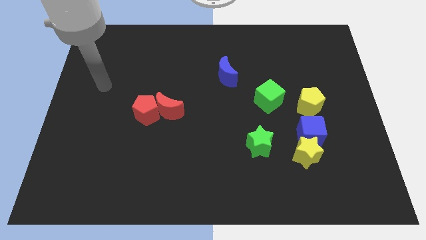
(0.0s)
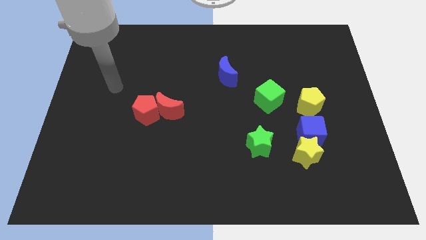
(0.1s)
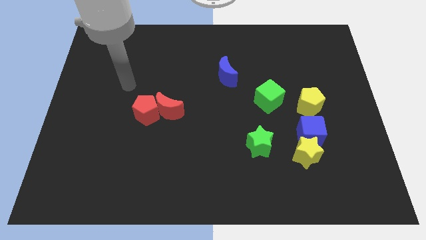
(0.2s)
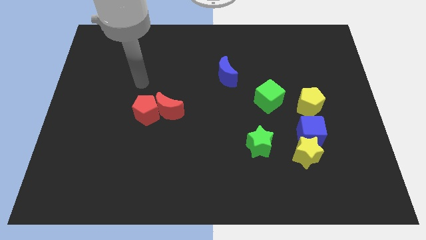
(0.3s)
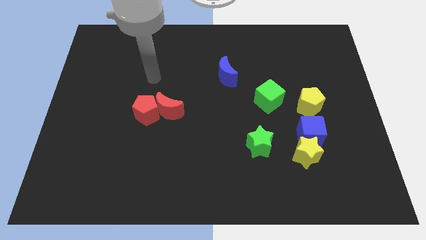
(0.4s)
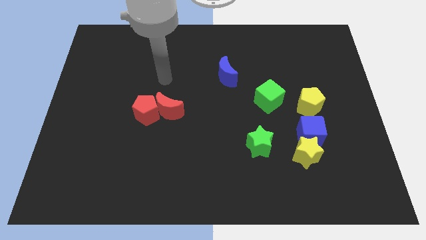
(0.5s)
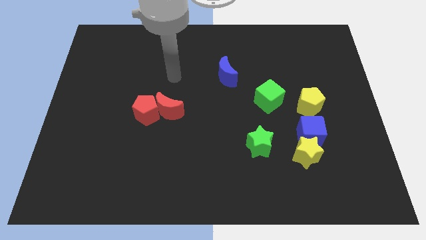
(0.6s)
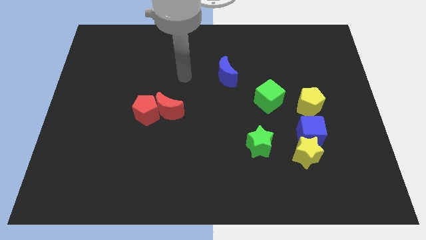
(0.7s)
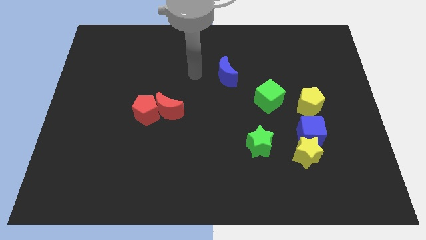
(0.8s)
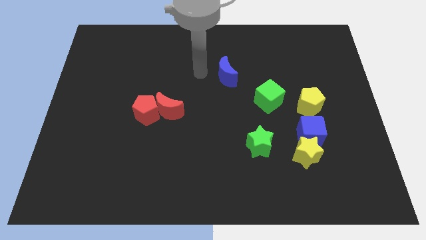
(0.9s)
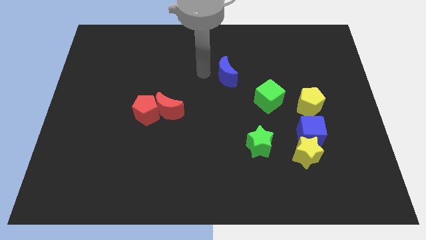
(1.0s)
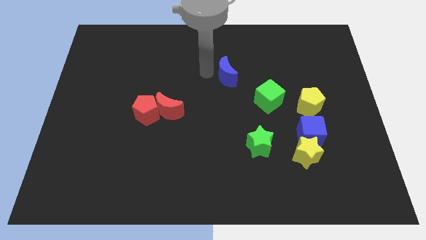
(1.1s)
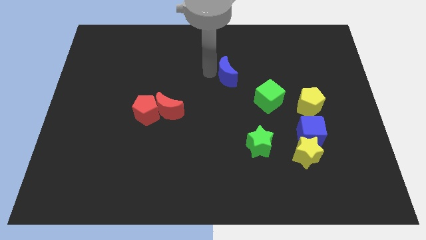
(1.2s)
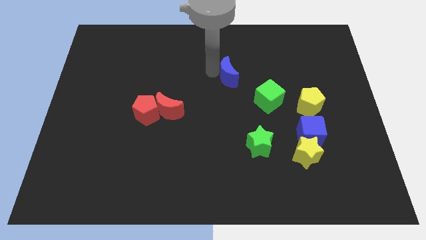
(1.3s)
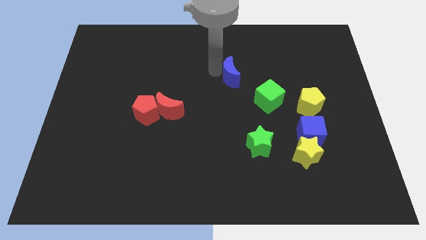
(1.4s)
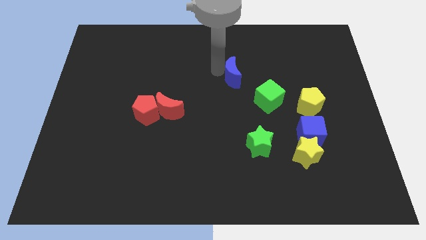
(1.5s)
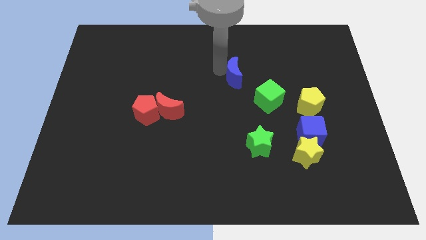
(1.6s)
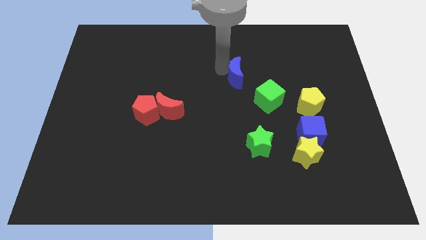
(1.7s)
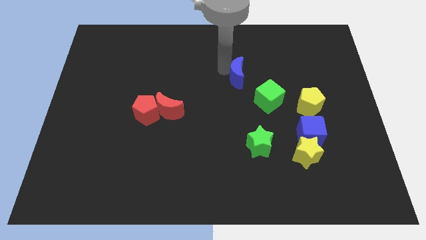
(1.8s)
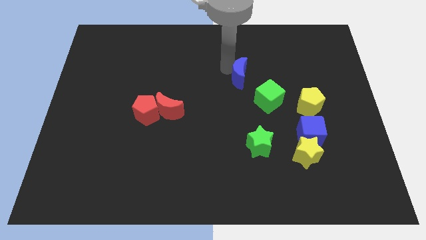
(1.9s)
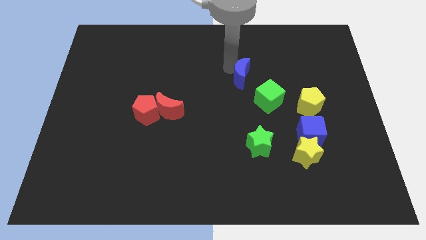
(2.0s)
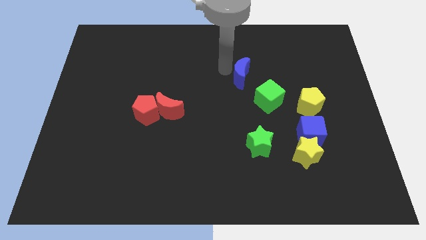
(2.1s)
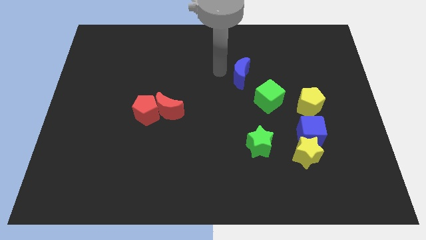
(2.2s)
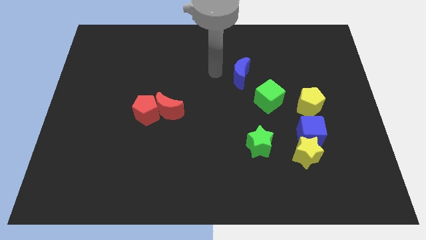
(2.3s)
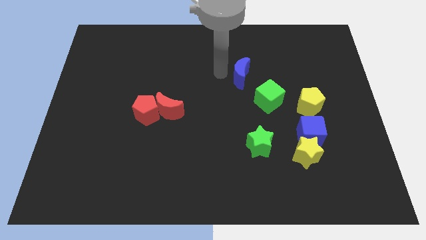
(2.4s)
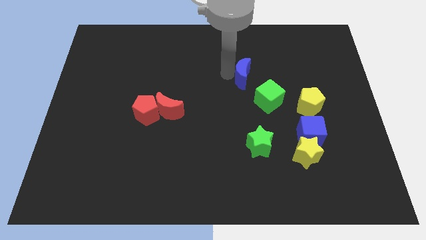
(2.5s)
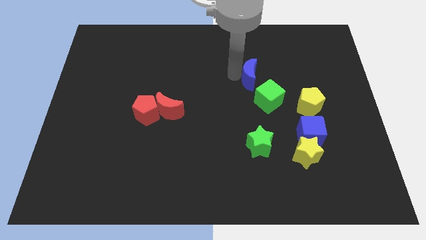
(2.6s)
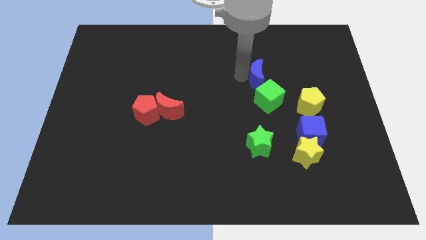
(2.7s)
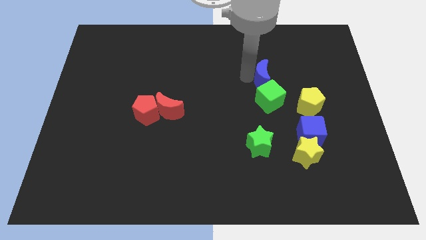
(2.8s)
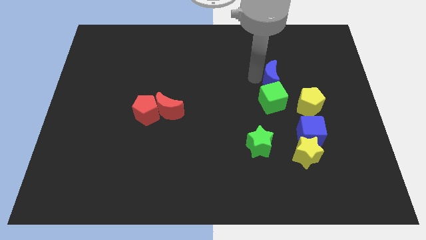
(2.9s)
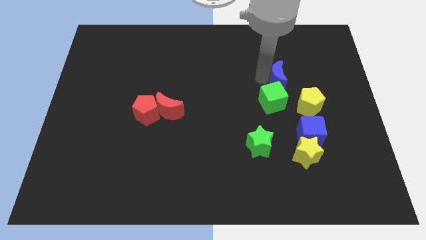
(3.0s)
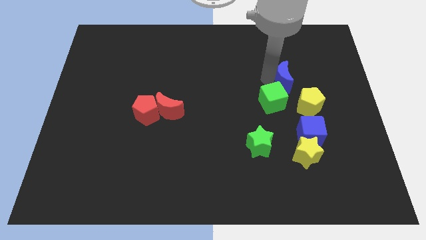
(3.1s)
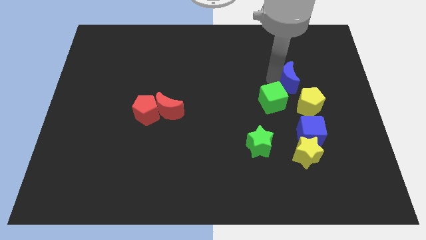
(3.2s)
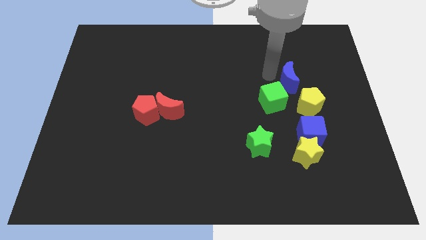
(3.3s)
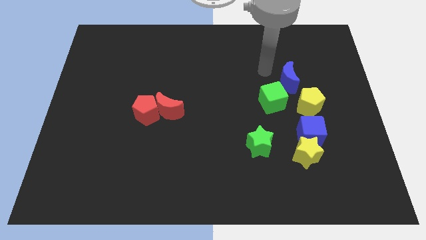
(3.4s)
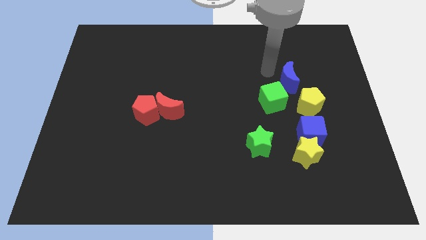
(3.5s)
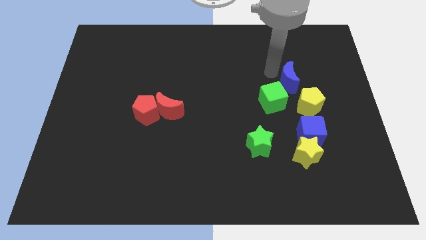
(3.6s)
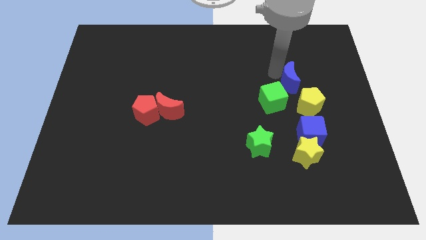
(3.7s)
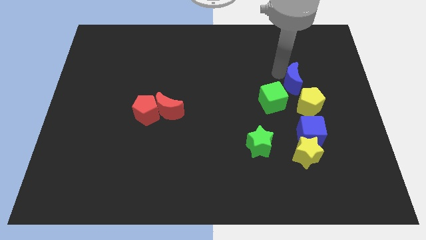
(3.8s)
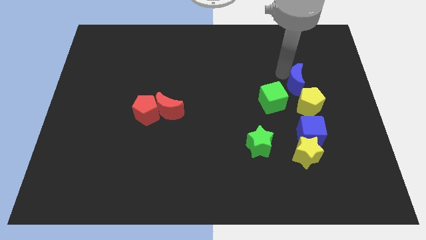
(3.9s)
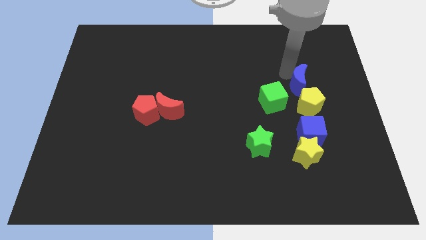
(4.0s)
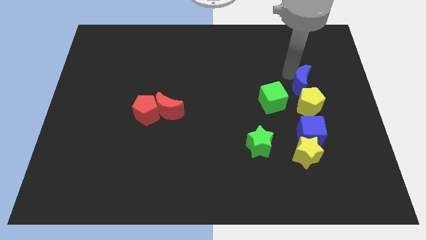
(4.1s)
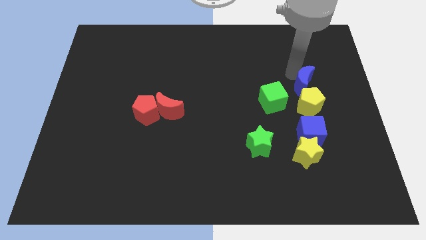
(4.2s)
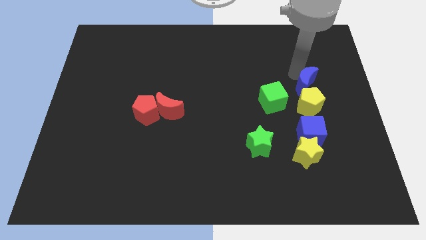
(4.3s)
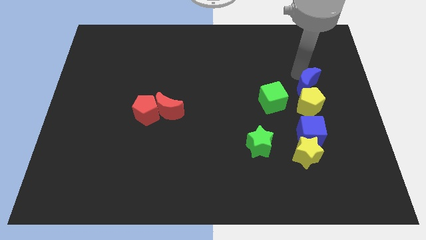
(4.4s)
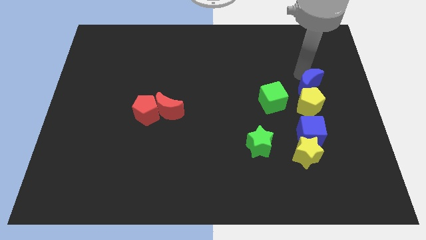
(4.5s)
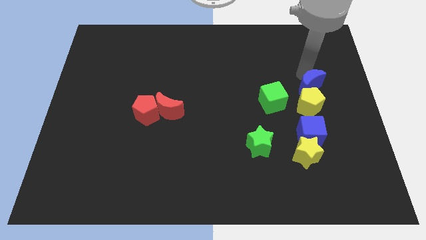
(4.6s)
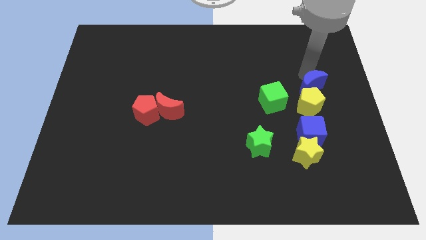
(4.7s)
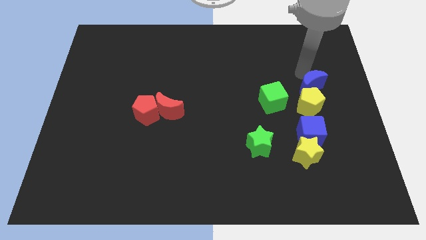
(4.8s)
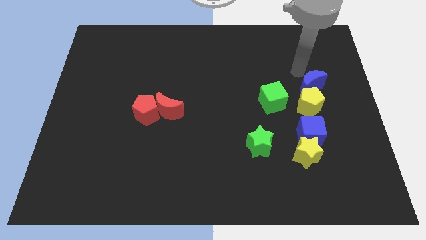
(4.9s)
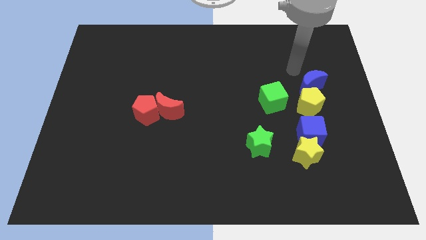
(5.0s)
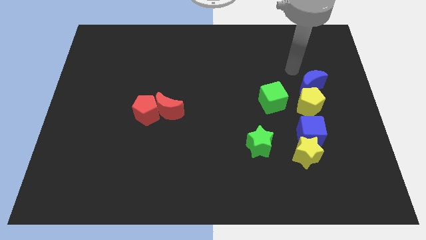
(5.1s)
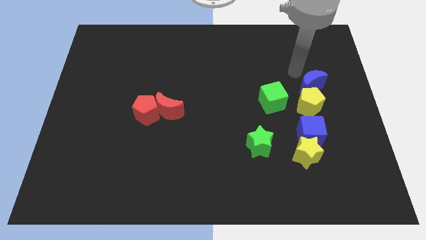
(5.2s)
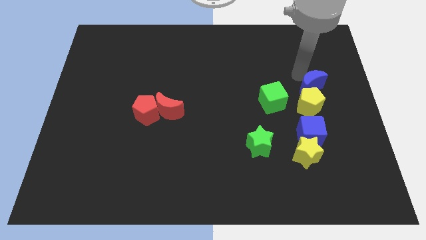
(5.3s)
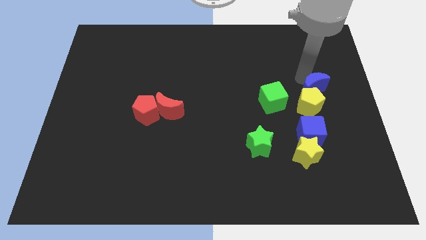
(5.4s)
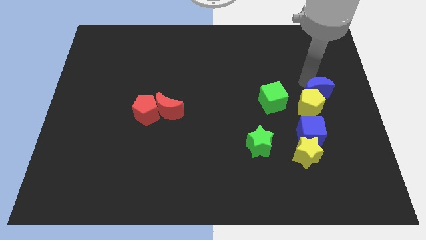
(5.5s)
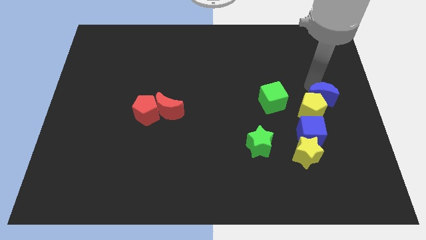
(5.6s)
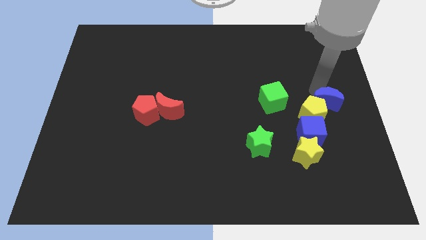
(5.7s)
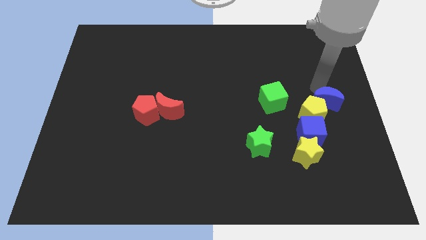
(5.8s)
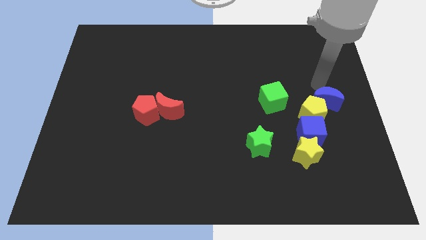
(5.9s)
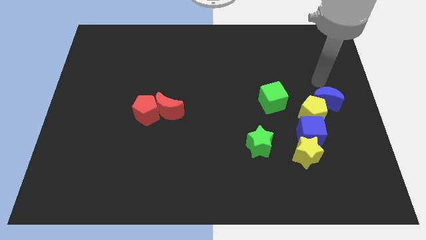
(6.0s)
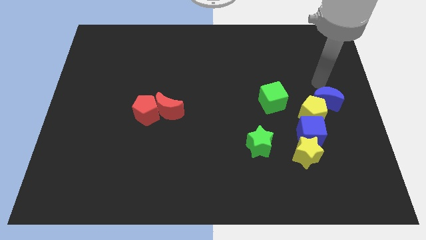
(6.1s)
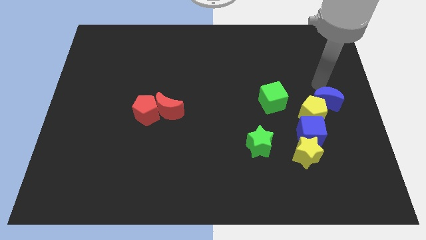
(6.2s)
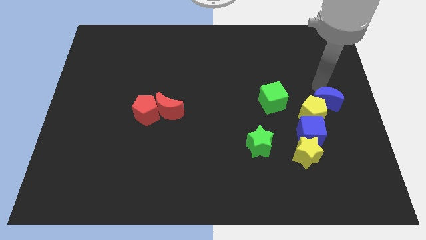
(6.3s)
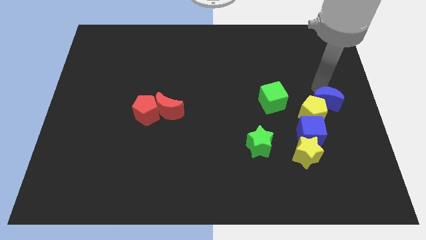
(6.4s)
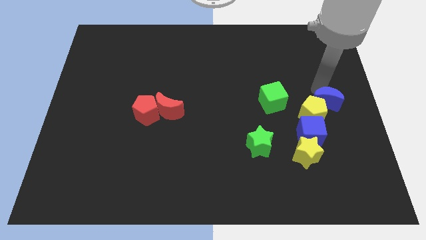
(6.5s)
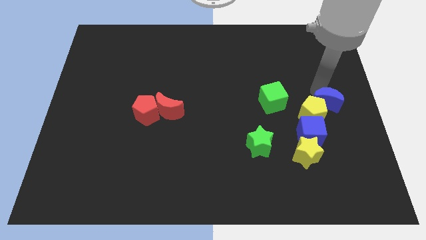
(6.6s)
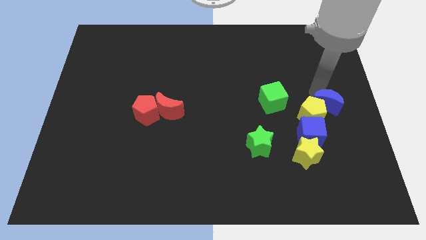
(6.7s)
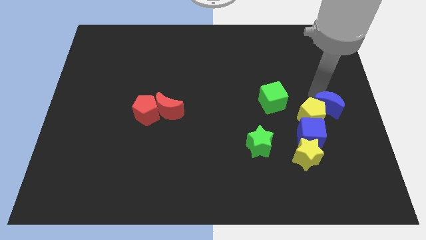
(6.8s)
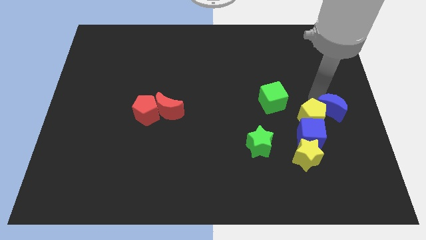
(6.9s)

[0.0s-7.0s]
push the blue moon down and then to the right

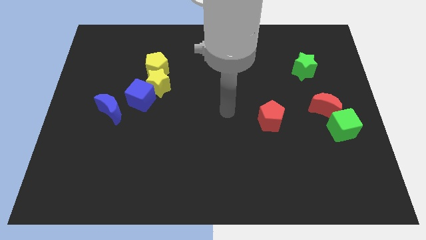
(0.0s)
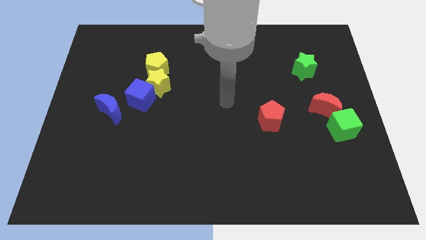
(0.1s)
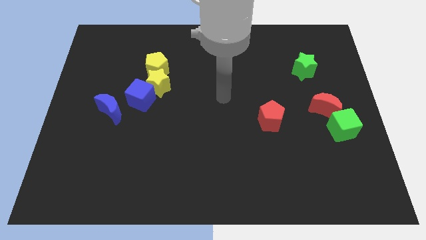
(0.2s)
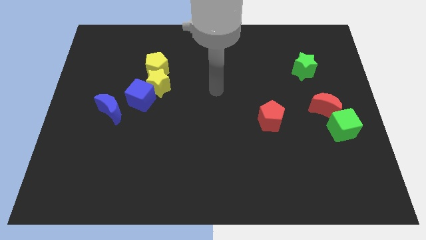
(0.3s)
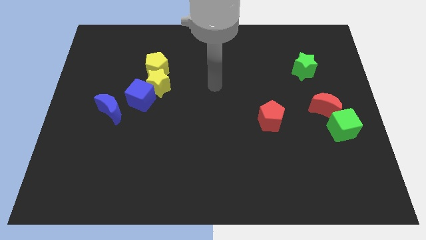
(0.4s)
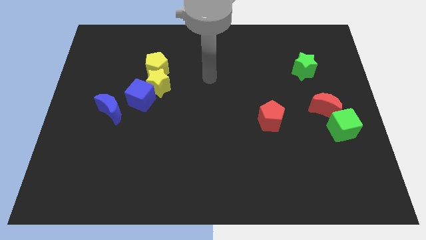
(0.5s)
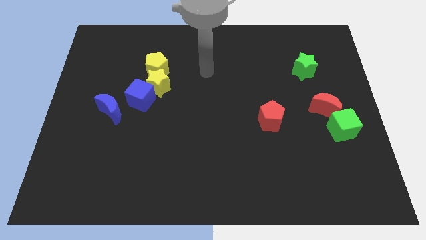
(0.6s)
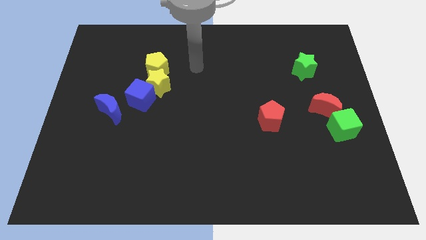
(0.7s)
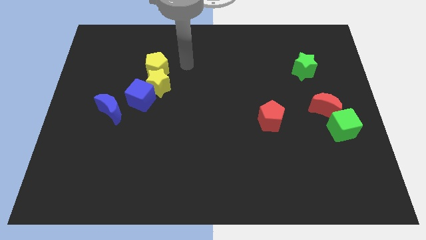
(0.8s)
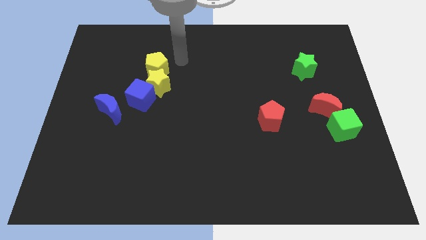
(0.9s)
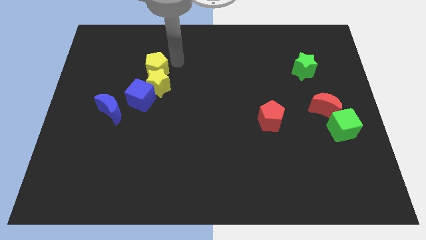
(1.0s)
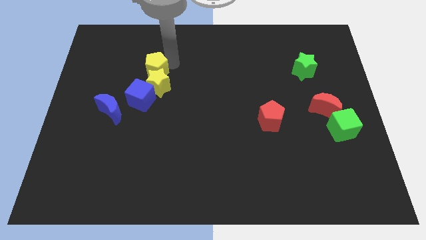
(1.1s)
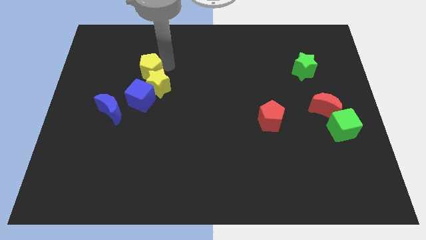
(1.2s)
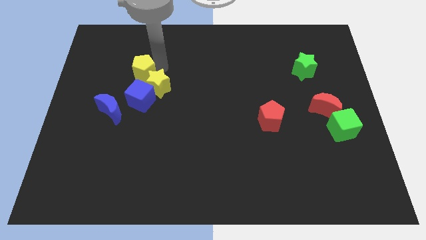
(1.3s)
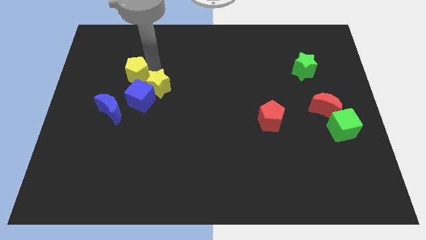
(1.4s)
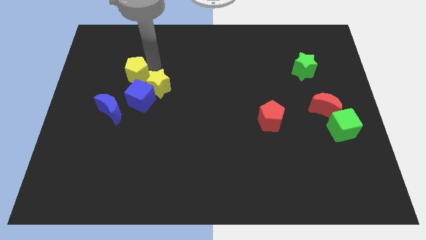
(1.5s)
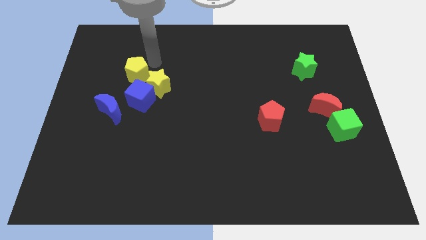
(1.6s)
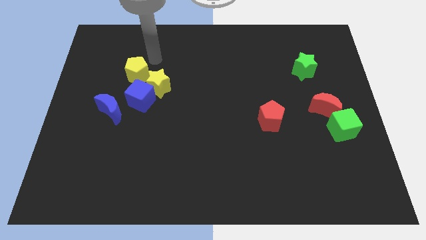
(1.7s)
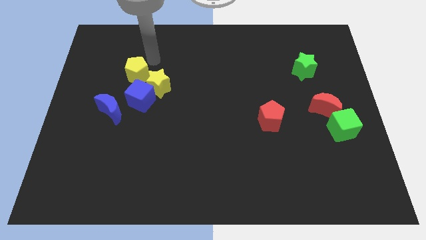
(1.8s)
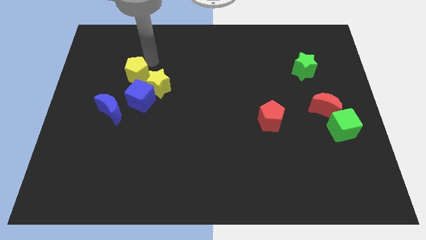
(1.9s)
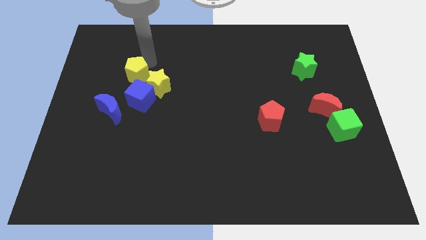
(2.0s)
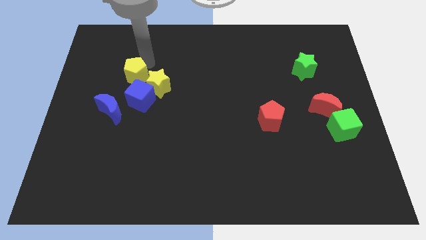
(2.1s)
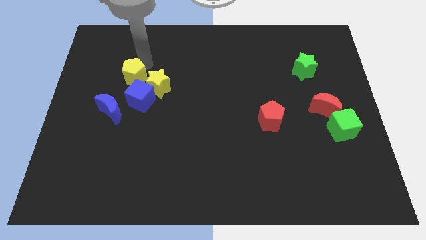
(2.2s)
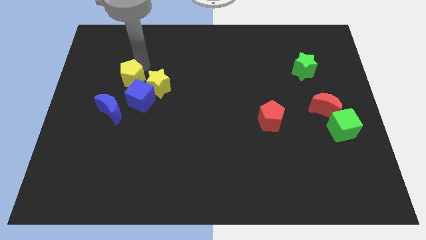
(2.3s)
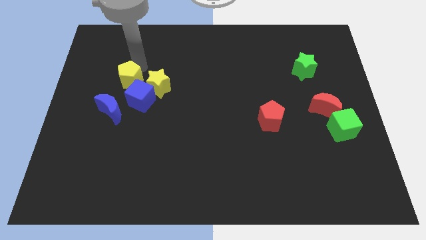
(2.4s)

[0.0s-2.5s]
push the yellow pentagon diagonally down and left slightly
